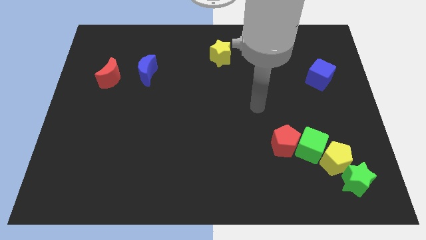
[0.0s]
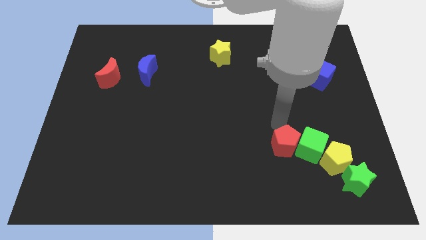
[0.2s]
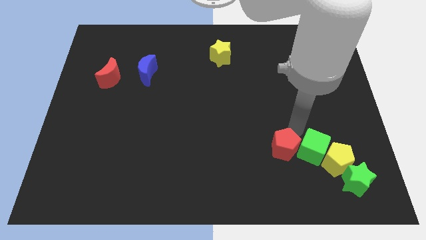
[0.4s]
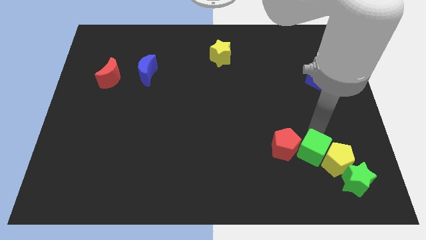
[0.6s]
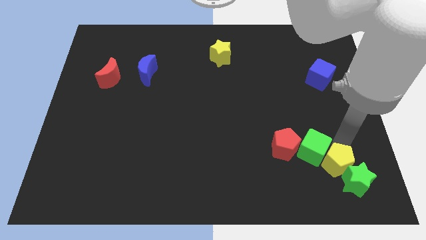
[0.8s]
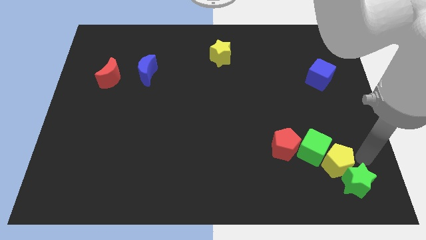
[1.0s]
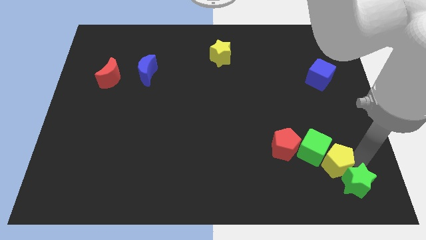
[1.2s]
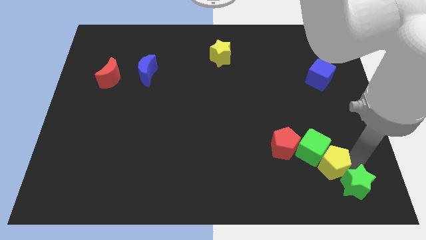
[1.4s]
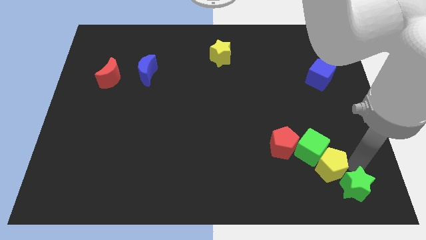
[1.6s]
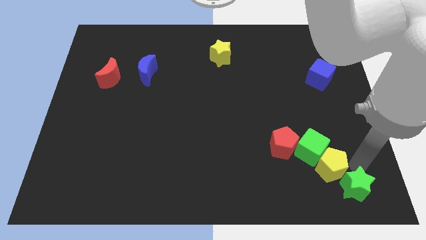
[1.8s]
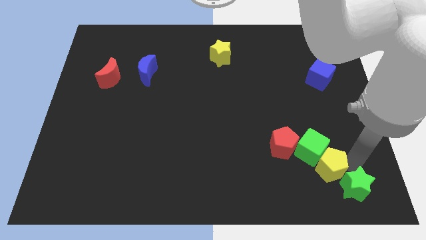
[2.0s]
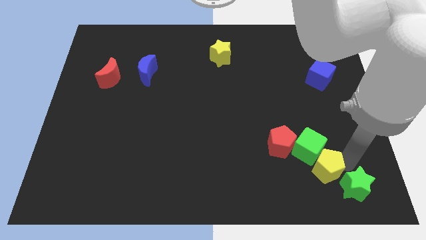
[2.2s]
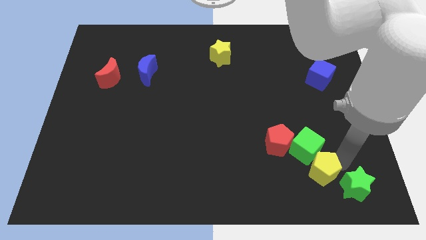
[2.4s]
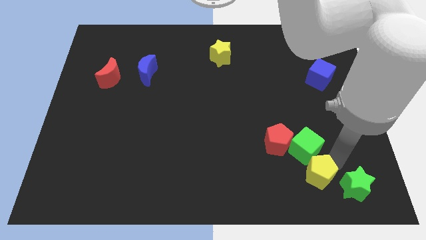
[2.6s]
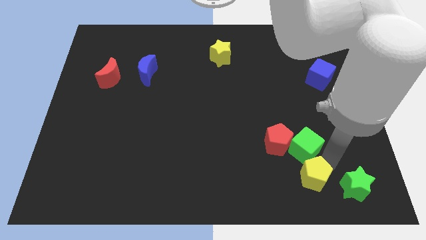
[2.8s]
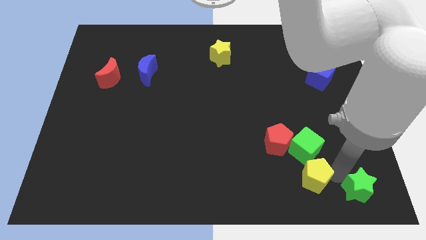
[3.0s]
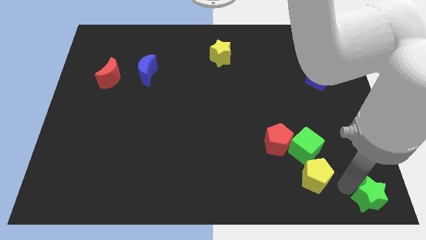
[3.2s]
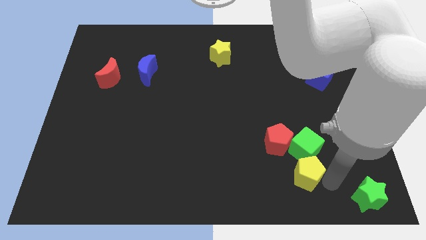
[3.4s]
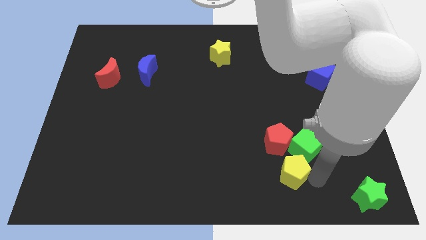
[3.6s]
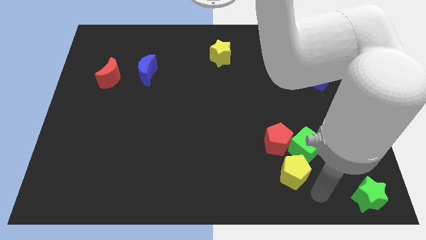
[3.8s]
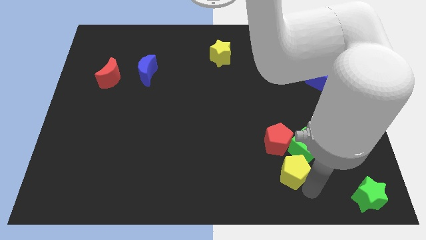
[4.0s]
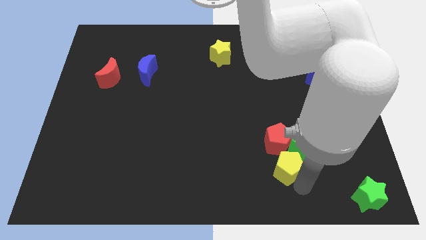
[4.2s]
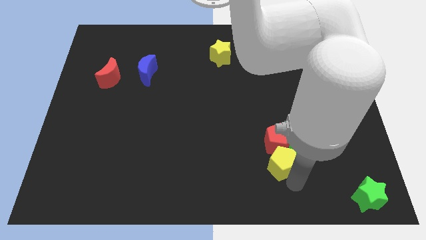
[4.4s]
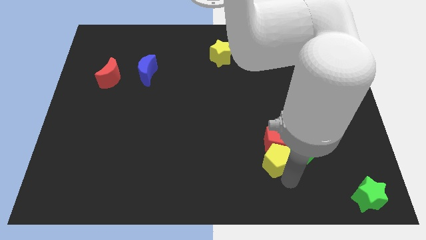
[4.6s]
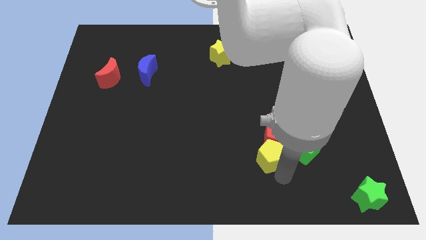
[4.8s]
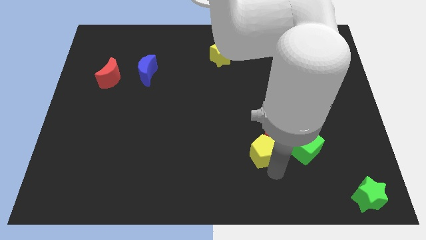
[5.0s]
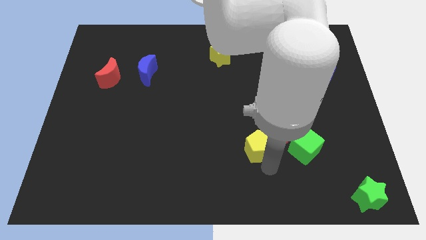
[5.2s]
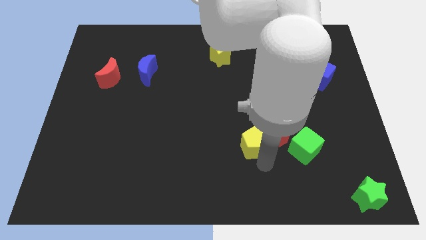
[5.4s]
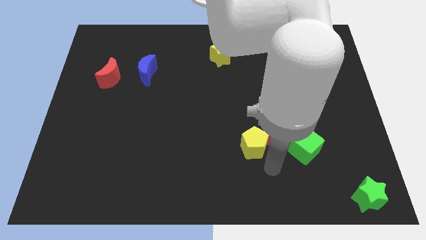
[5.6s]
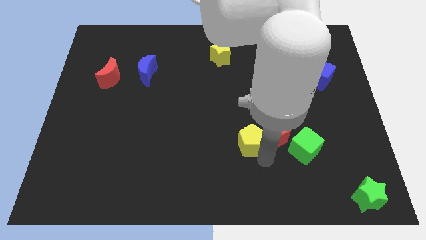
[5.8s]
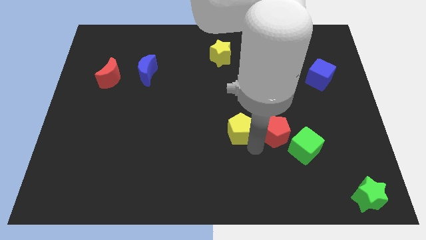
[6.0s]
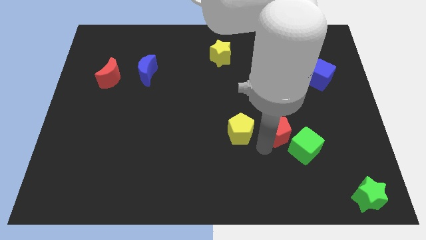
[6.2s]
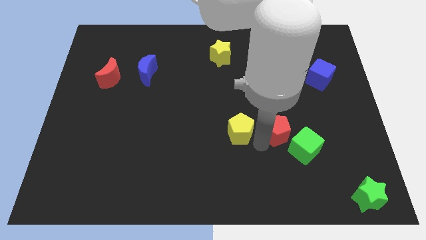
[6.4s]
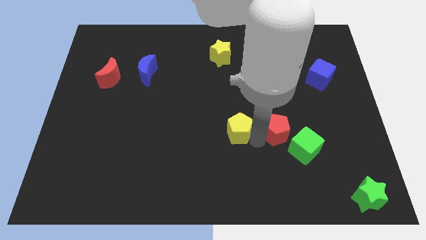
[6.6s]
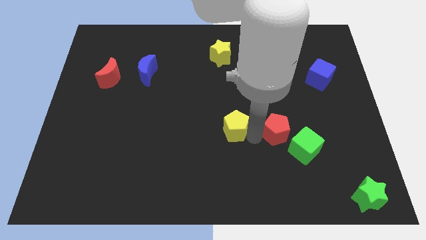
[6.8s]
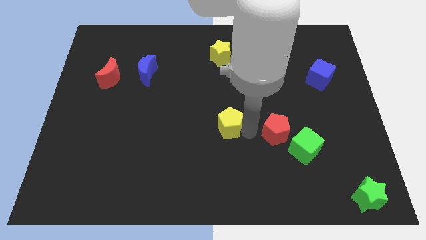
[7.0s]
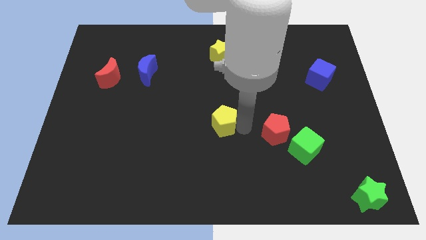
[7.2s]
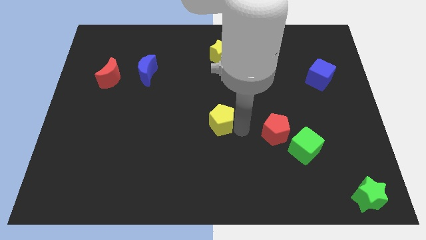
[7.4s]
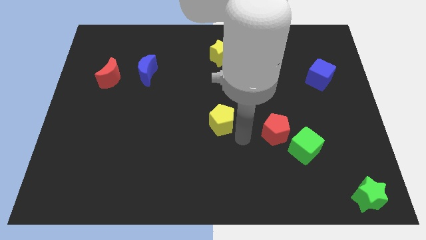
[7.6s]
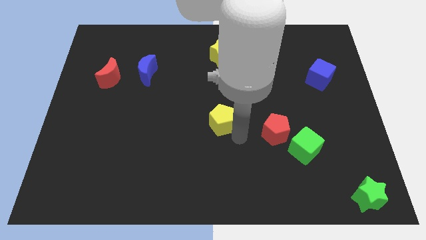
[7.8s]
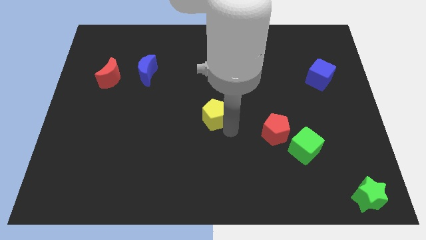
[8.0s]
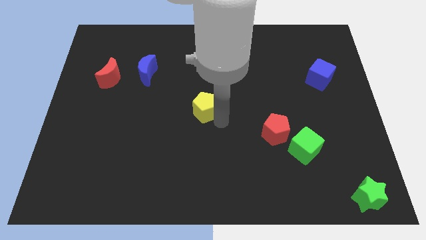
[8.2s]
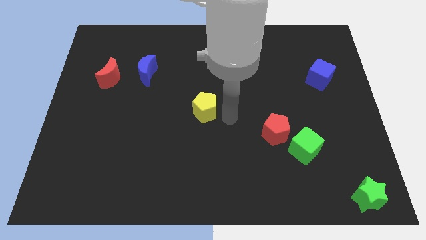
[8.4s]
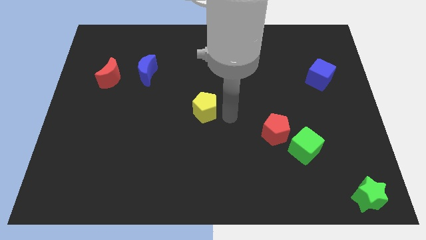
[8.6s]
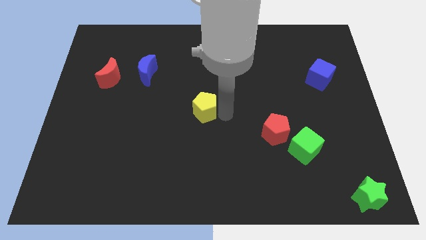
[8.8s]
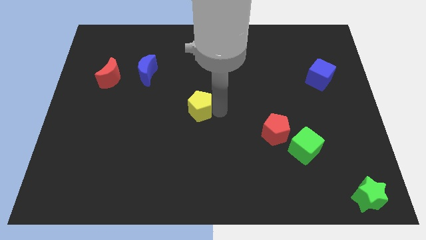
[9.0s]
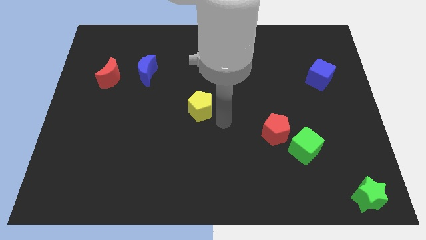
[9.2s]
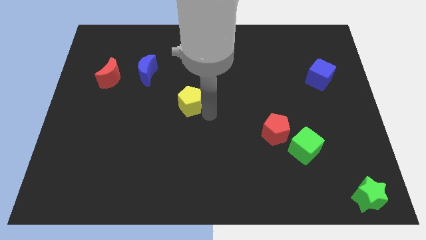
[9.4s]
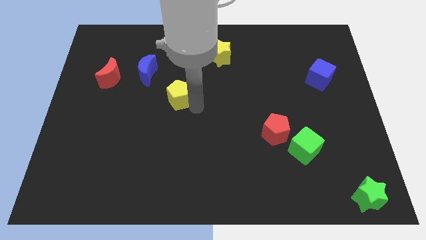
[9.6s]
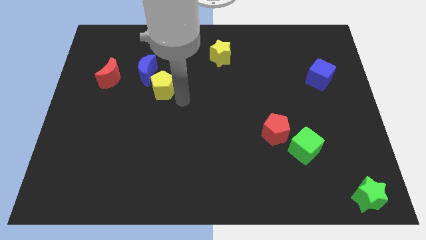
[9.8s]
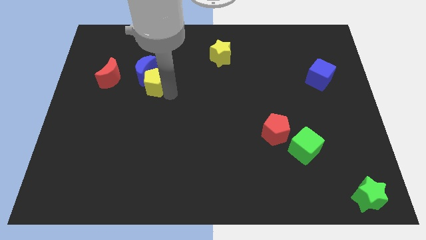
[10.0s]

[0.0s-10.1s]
put the yellow pentagon next to the blue moon

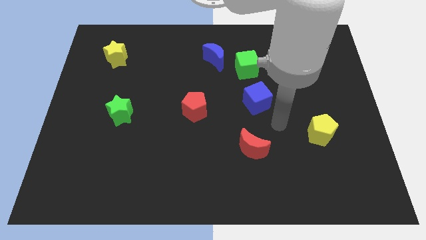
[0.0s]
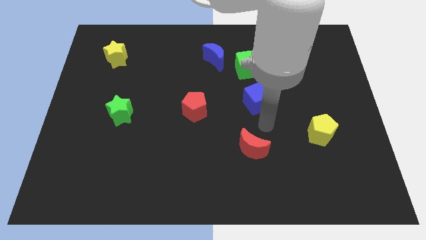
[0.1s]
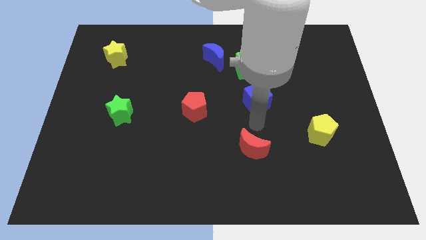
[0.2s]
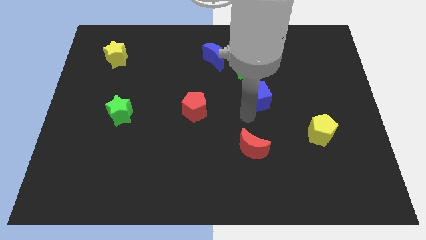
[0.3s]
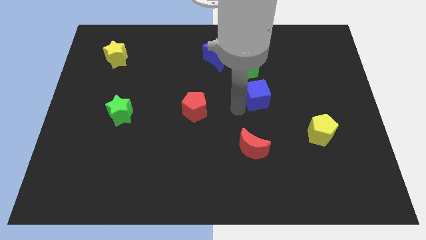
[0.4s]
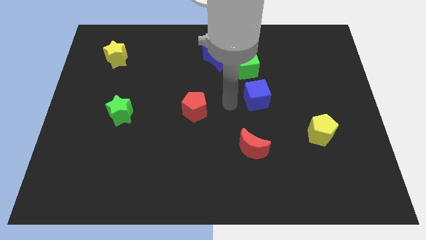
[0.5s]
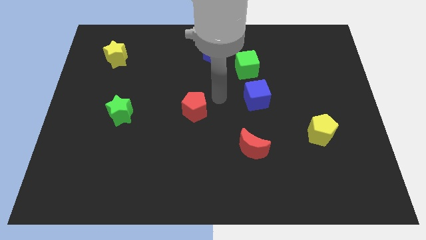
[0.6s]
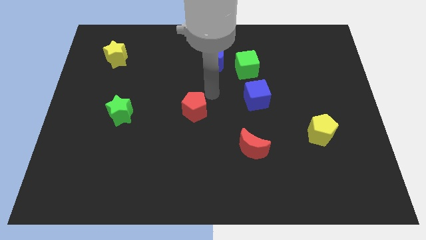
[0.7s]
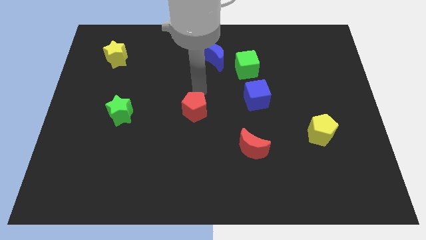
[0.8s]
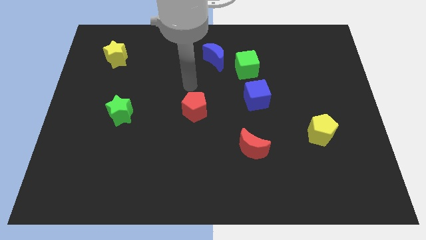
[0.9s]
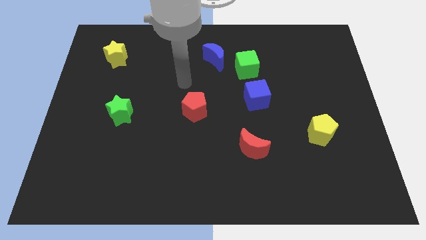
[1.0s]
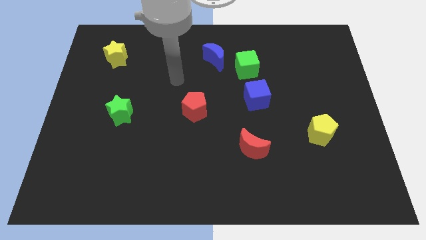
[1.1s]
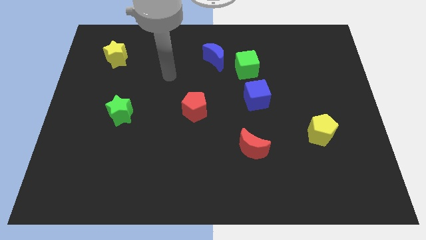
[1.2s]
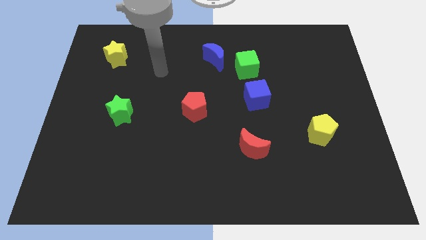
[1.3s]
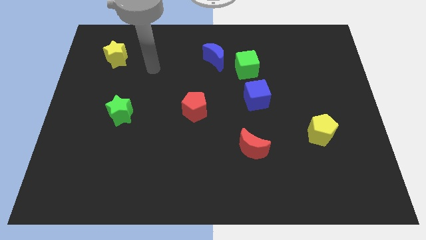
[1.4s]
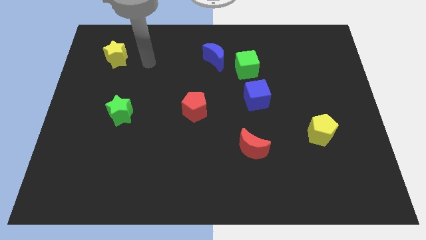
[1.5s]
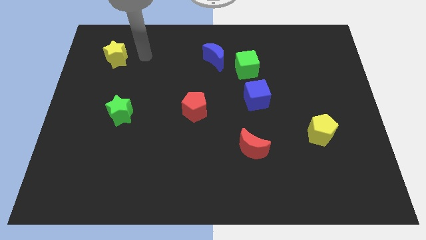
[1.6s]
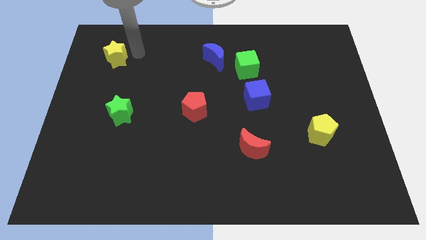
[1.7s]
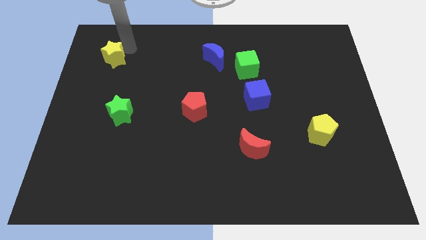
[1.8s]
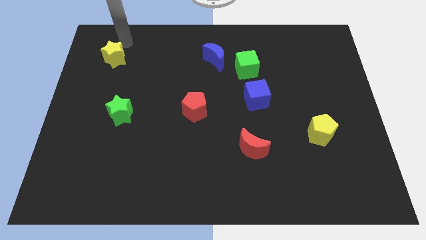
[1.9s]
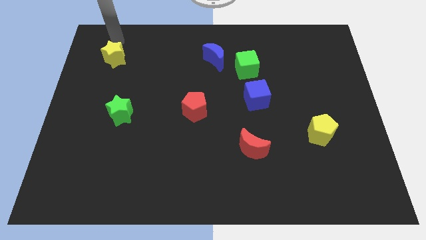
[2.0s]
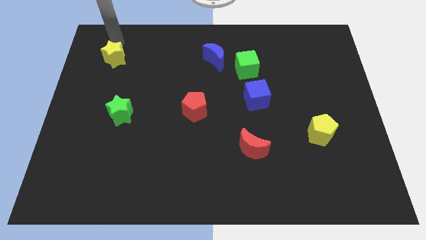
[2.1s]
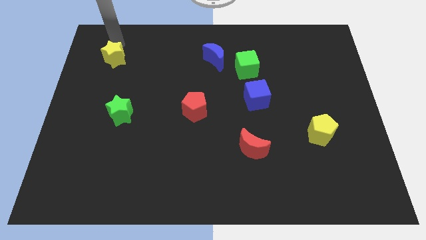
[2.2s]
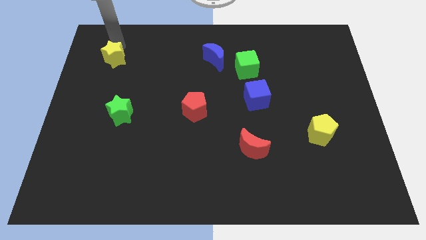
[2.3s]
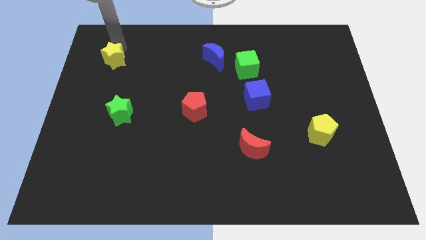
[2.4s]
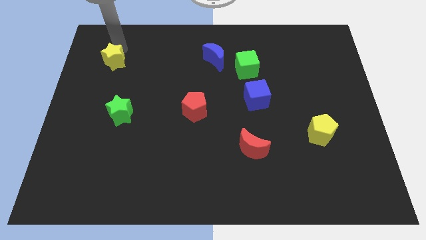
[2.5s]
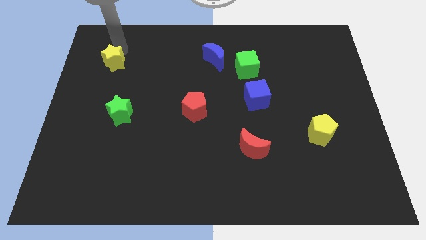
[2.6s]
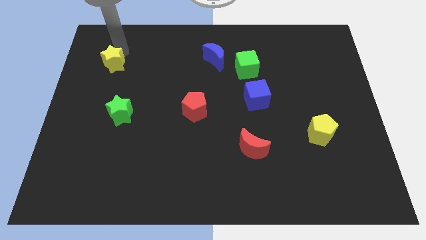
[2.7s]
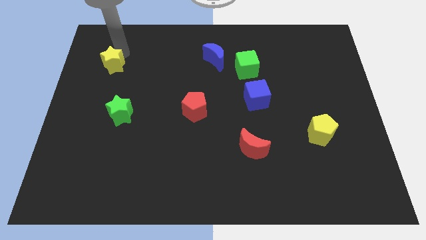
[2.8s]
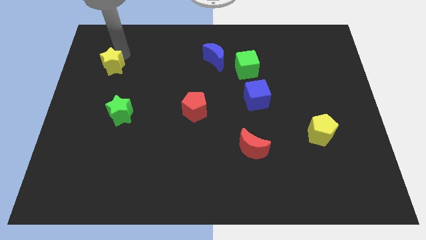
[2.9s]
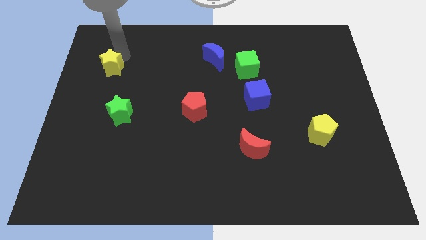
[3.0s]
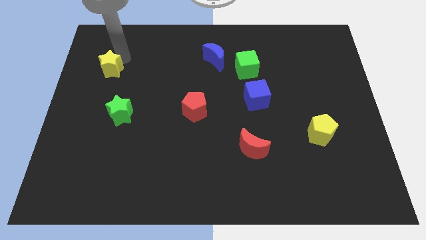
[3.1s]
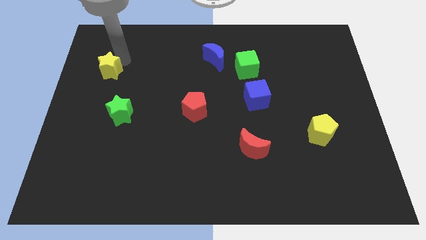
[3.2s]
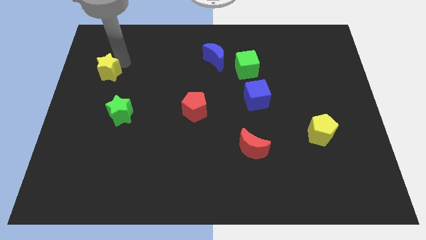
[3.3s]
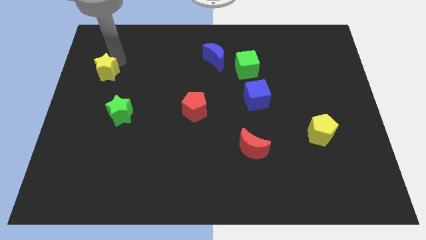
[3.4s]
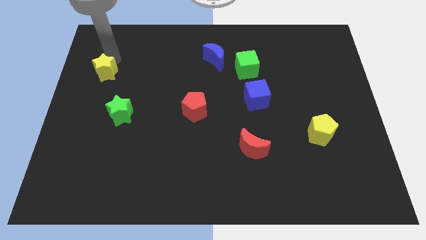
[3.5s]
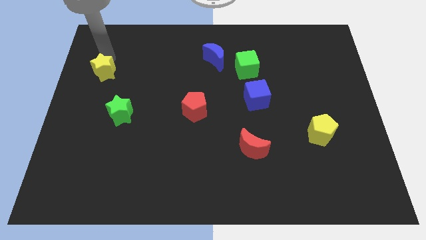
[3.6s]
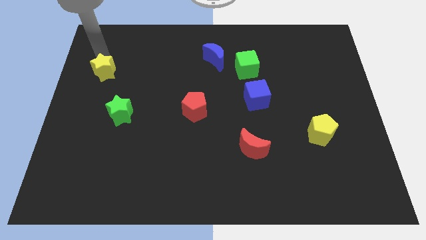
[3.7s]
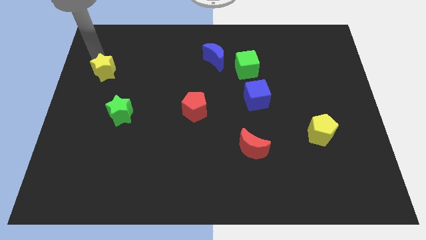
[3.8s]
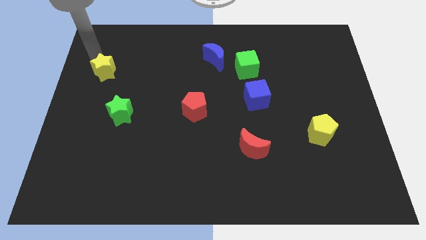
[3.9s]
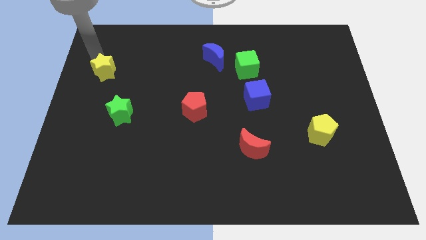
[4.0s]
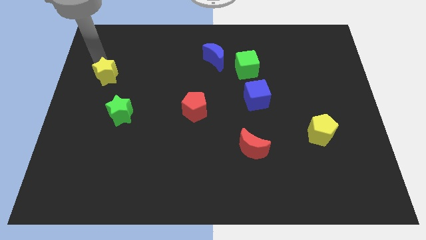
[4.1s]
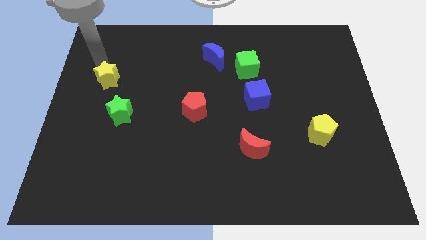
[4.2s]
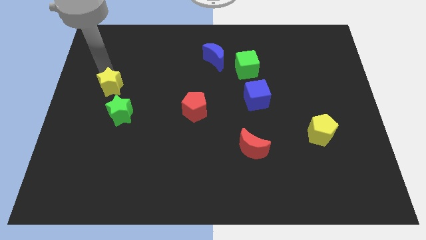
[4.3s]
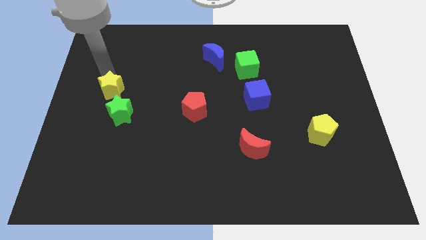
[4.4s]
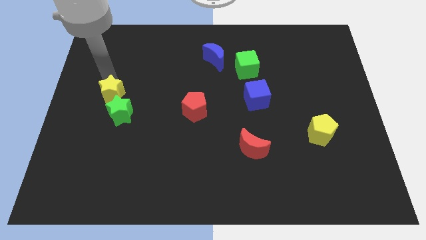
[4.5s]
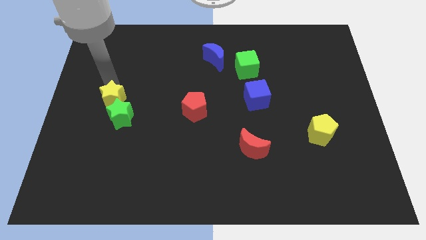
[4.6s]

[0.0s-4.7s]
slide the yellow star towards the green star
